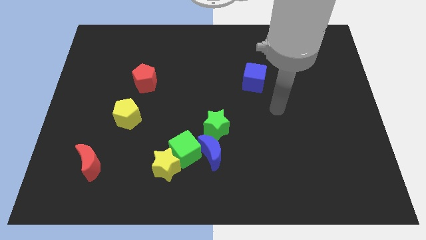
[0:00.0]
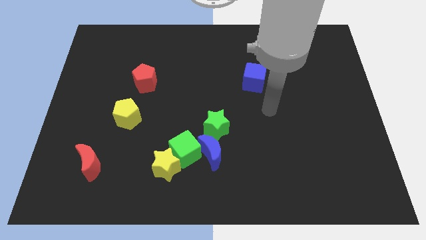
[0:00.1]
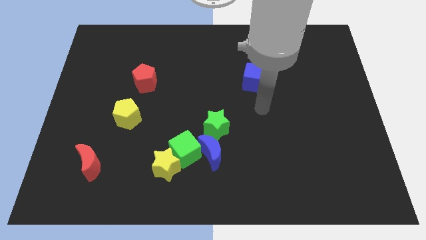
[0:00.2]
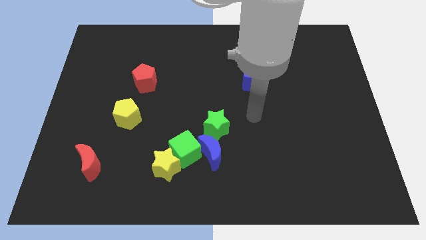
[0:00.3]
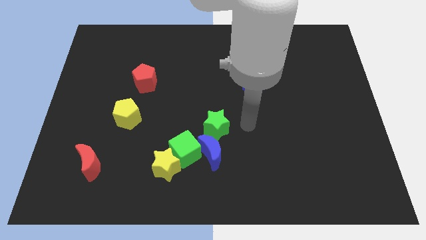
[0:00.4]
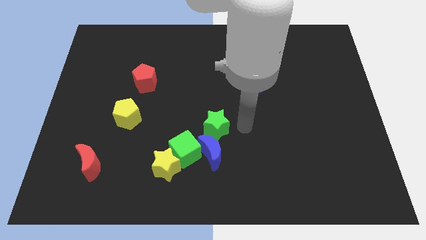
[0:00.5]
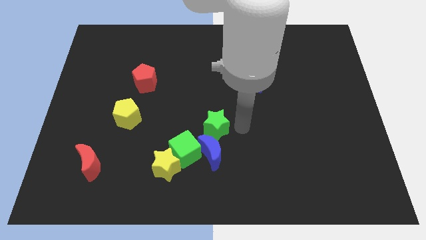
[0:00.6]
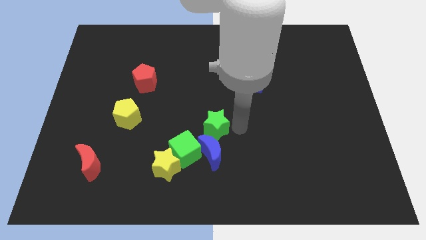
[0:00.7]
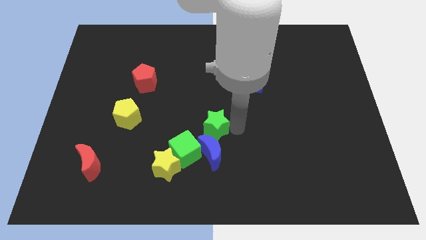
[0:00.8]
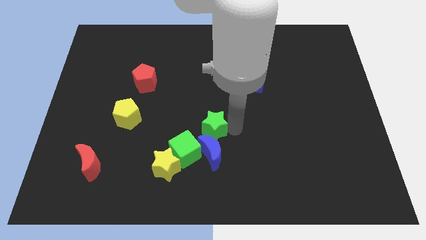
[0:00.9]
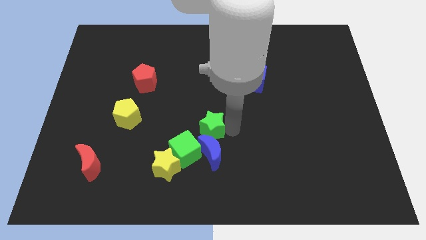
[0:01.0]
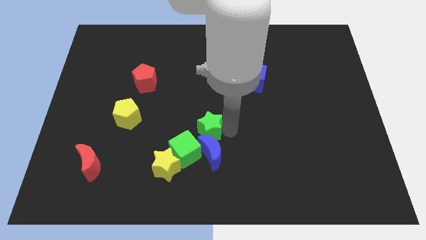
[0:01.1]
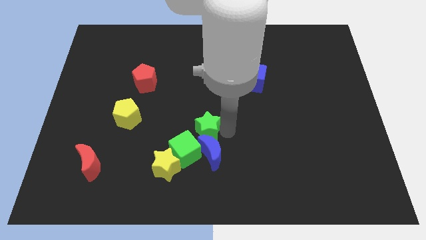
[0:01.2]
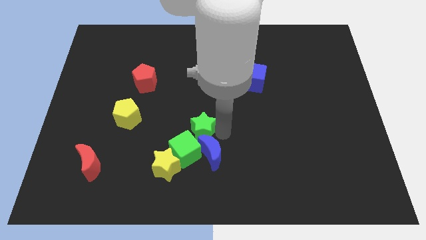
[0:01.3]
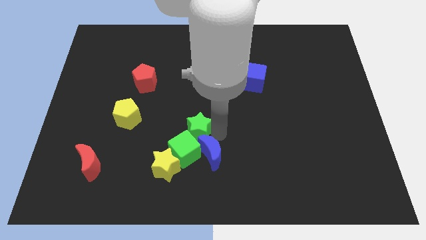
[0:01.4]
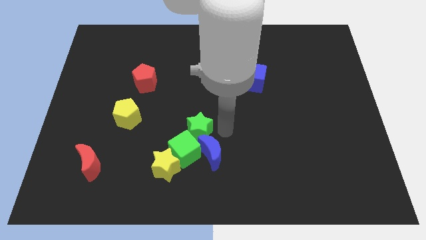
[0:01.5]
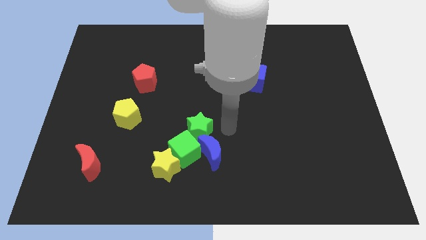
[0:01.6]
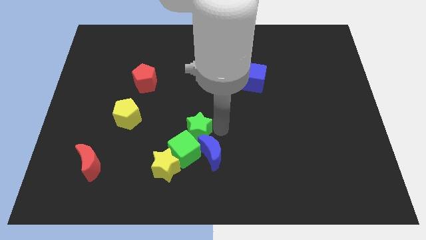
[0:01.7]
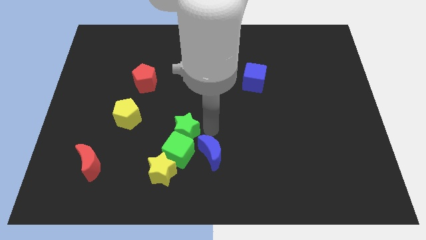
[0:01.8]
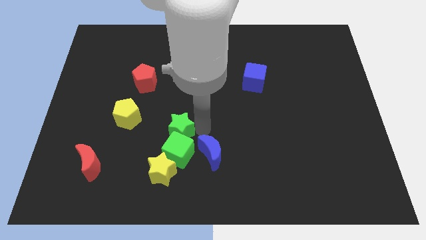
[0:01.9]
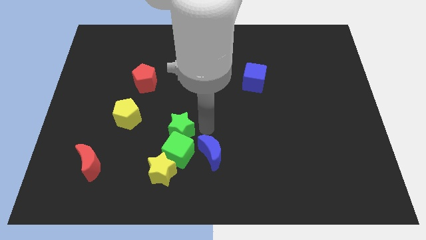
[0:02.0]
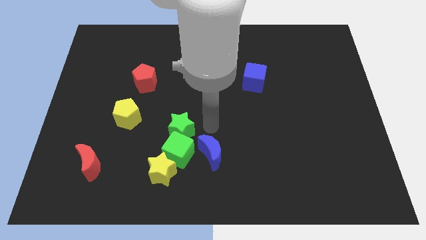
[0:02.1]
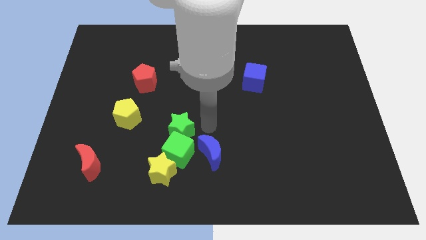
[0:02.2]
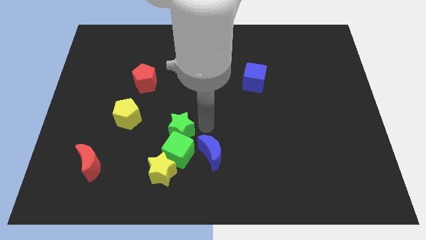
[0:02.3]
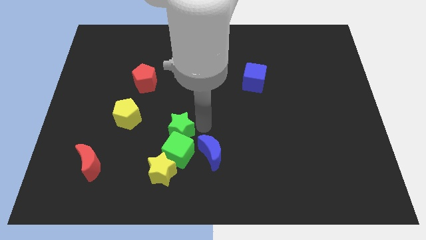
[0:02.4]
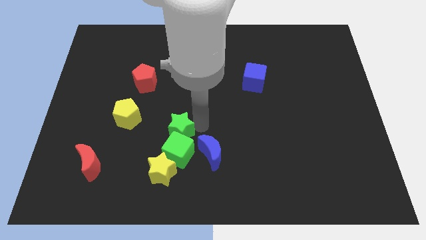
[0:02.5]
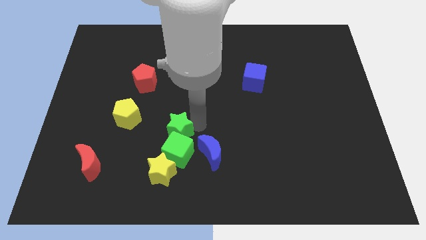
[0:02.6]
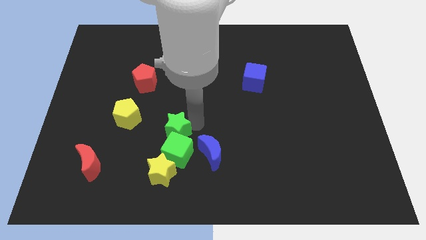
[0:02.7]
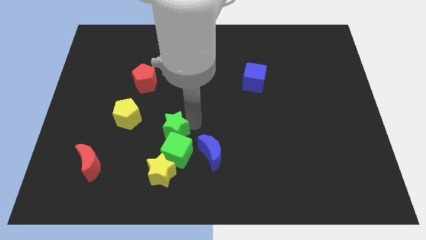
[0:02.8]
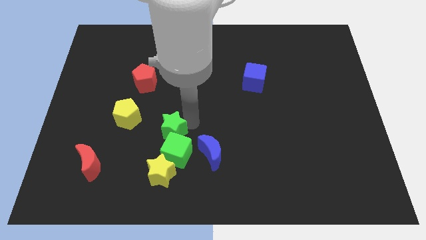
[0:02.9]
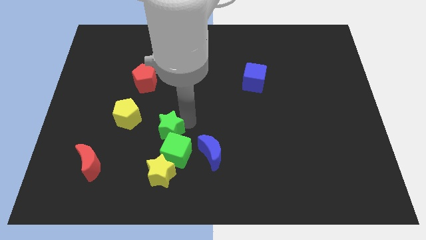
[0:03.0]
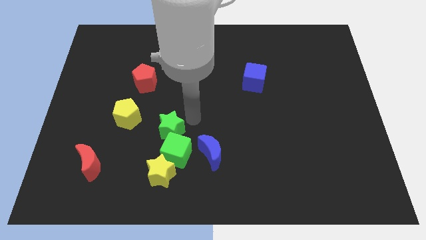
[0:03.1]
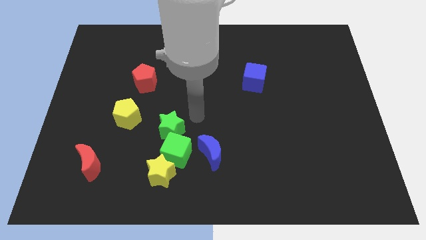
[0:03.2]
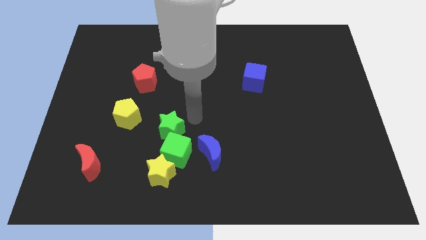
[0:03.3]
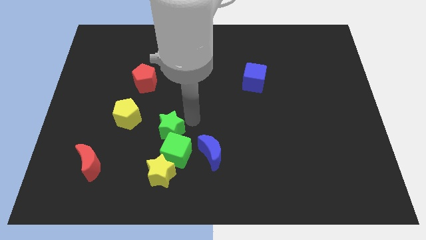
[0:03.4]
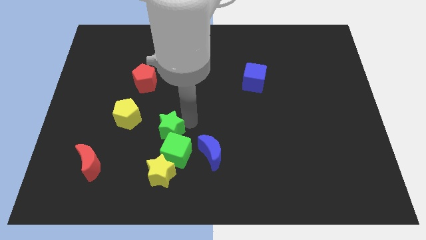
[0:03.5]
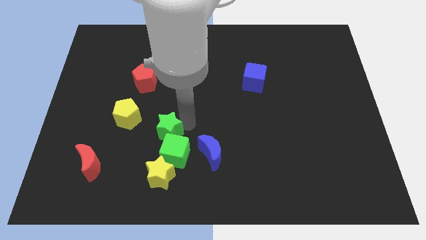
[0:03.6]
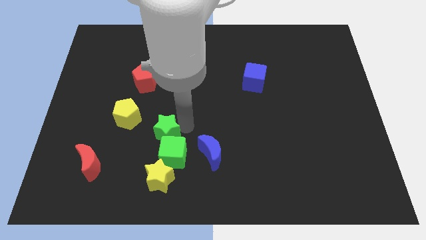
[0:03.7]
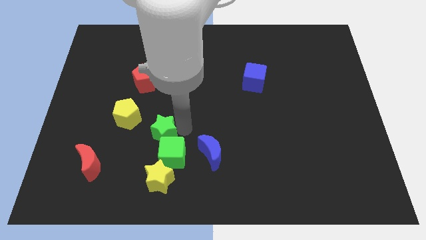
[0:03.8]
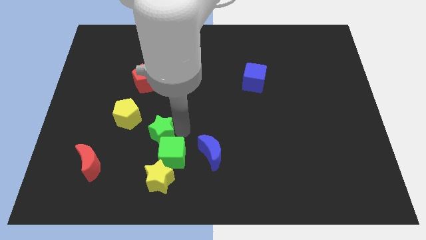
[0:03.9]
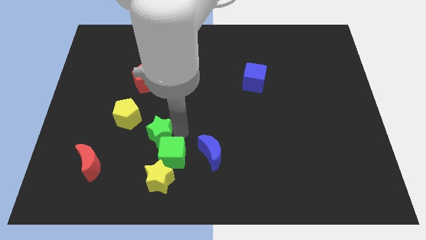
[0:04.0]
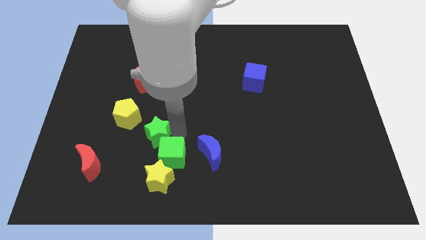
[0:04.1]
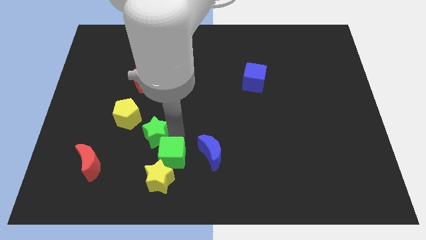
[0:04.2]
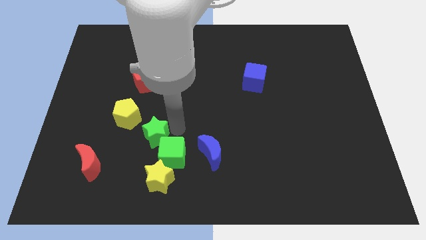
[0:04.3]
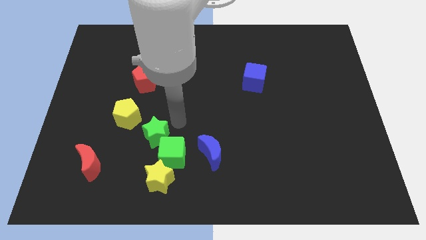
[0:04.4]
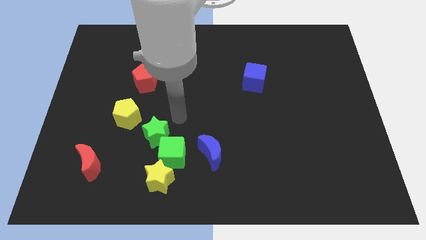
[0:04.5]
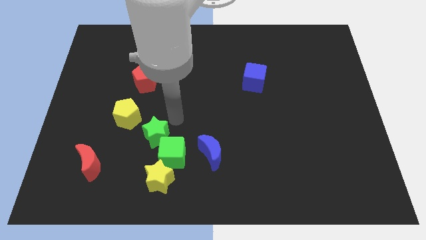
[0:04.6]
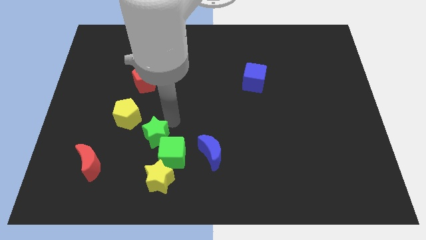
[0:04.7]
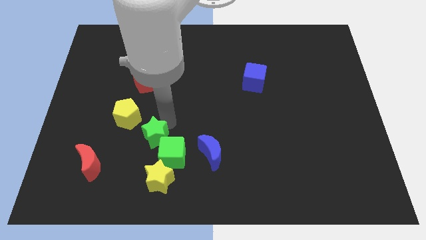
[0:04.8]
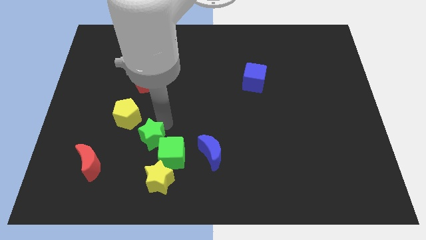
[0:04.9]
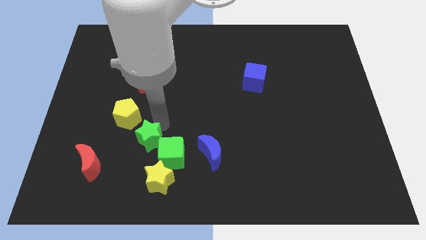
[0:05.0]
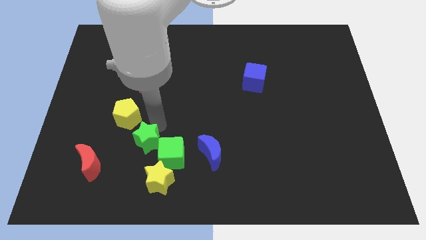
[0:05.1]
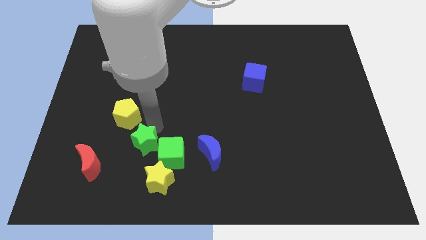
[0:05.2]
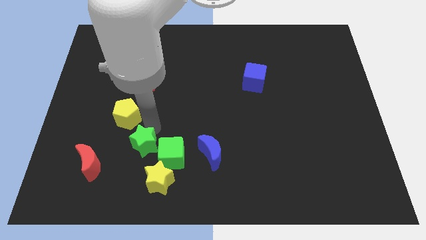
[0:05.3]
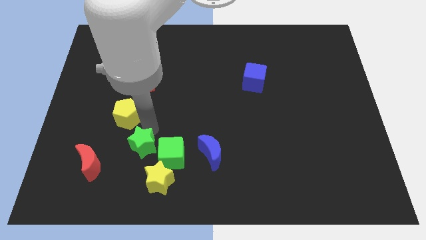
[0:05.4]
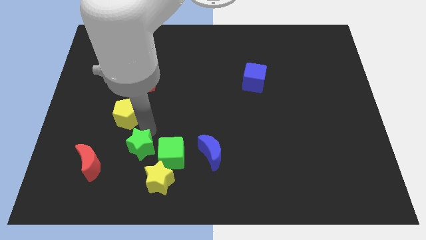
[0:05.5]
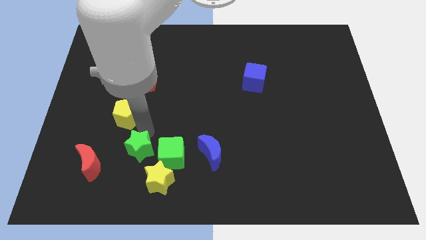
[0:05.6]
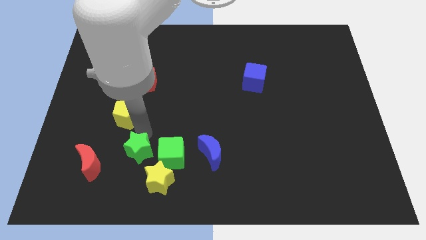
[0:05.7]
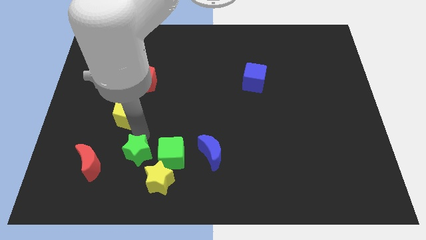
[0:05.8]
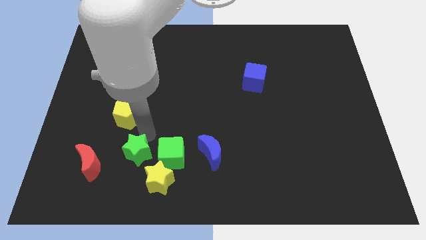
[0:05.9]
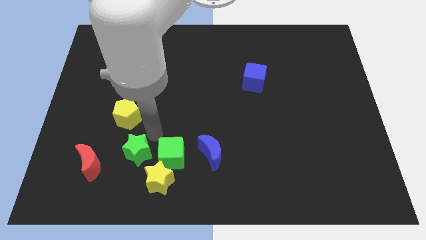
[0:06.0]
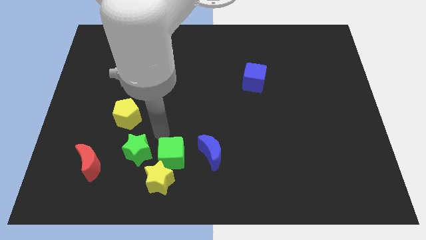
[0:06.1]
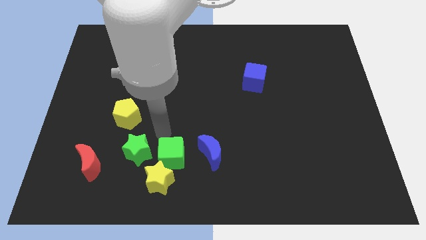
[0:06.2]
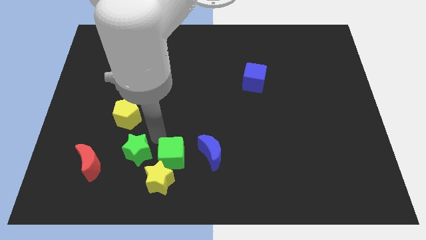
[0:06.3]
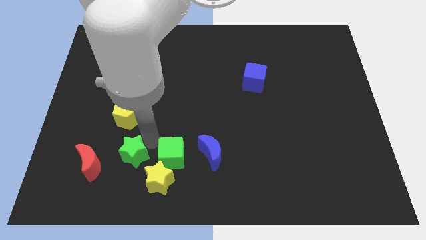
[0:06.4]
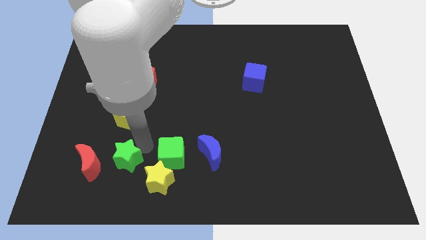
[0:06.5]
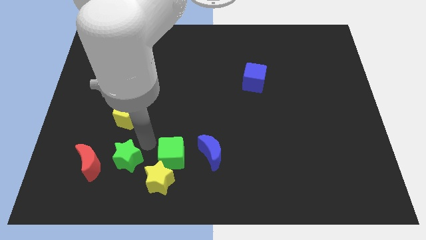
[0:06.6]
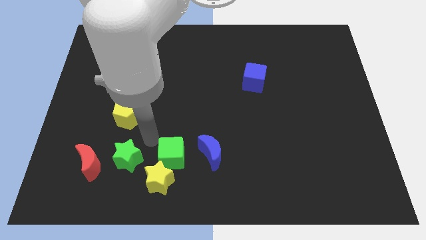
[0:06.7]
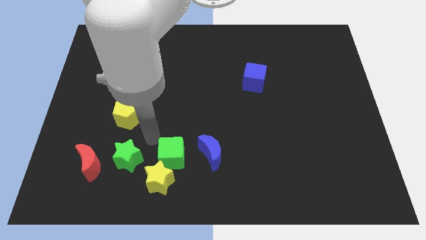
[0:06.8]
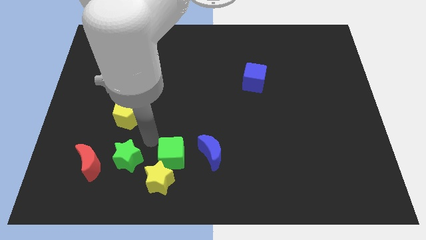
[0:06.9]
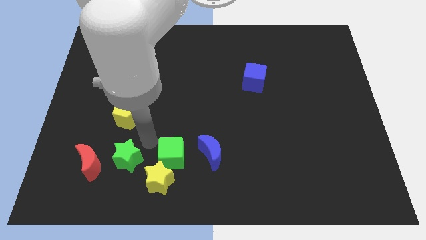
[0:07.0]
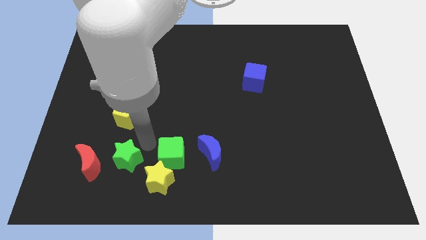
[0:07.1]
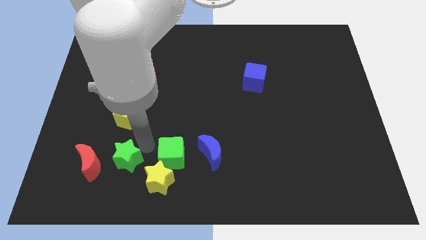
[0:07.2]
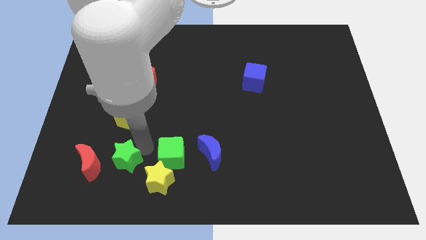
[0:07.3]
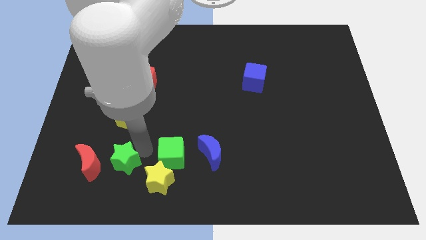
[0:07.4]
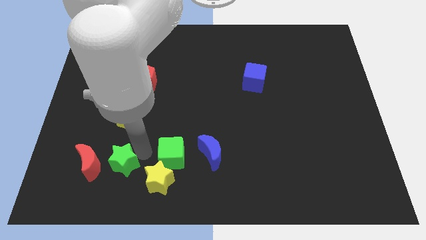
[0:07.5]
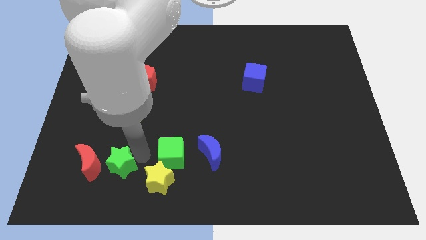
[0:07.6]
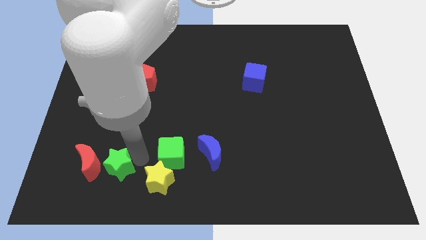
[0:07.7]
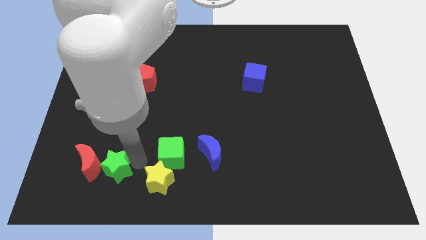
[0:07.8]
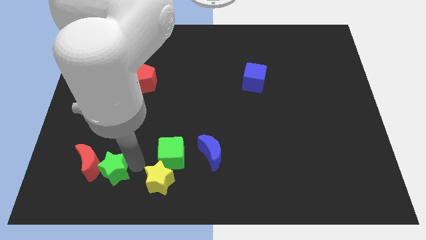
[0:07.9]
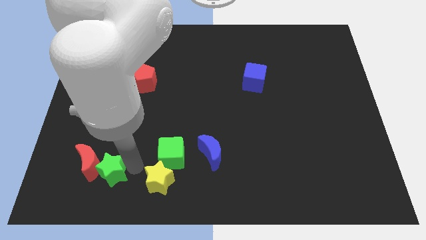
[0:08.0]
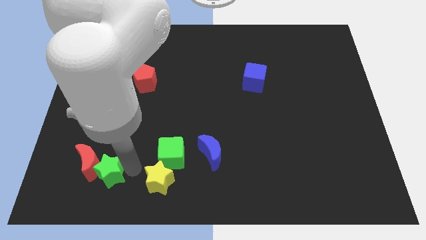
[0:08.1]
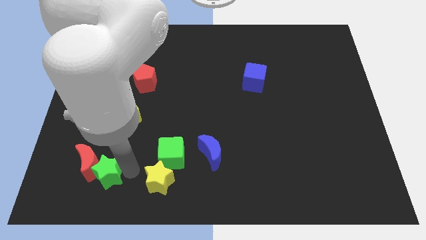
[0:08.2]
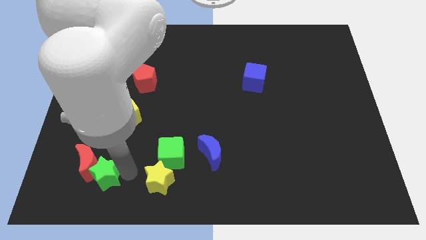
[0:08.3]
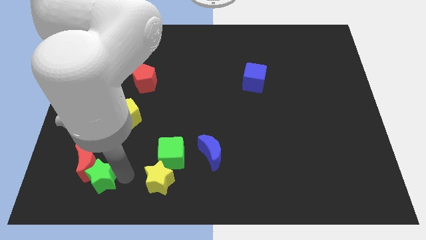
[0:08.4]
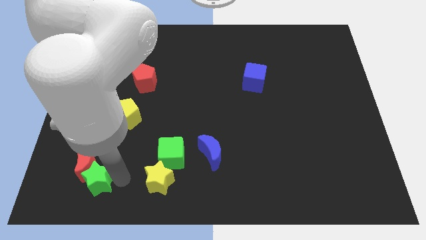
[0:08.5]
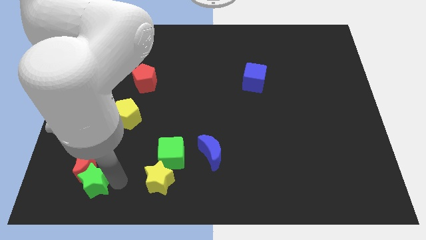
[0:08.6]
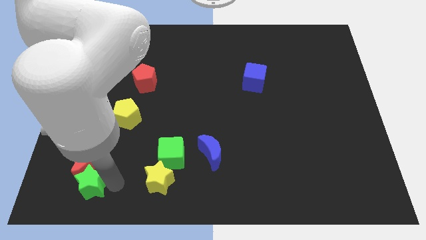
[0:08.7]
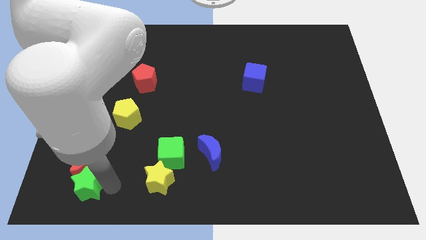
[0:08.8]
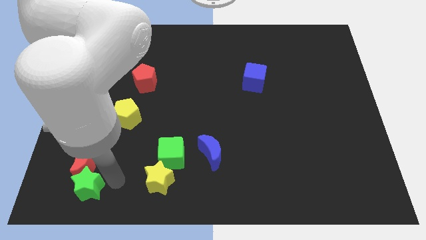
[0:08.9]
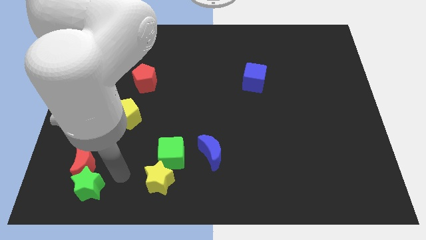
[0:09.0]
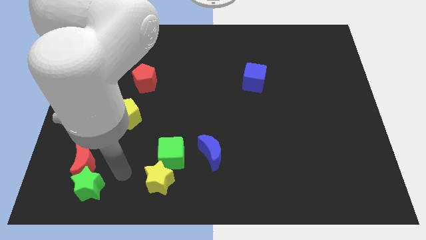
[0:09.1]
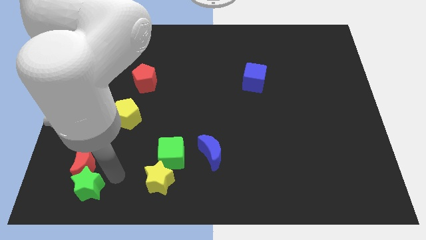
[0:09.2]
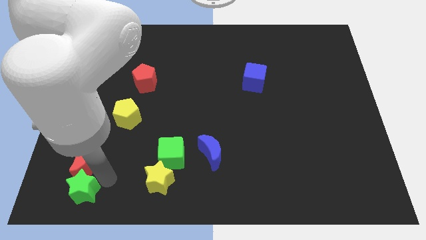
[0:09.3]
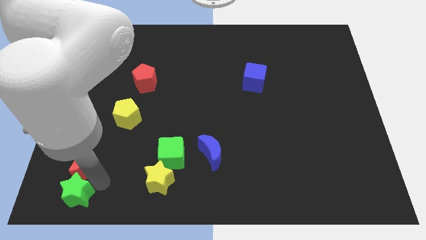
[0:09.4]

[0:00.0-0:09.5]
push the green star to the bottom left corner
